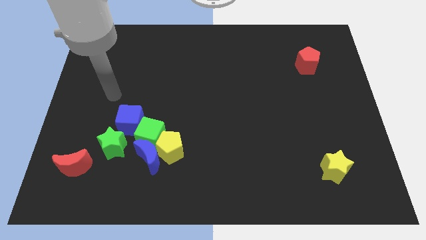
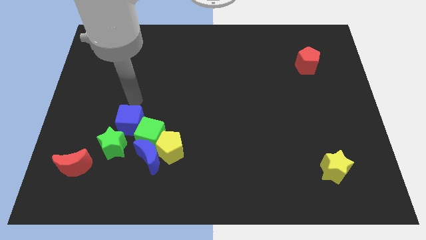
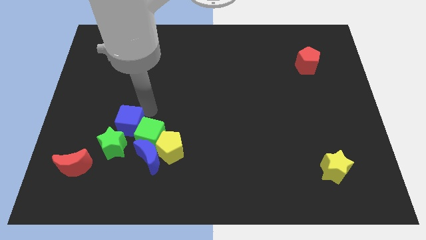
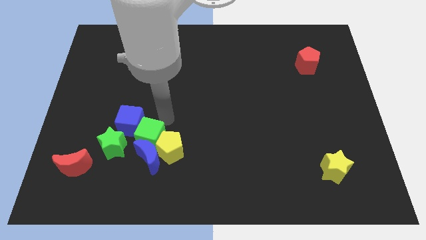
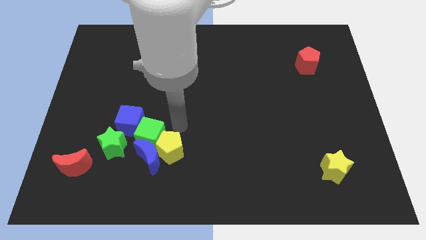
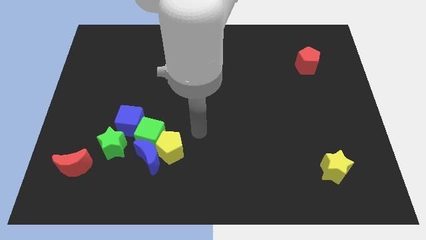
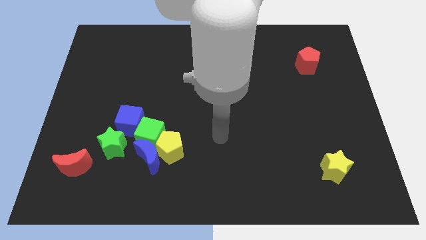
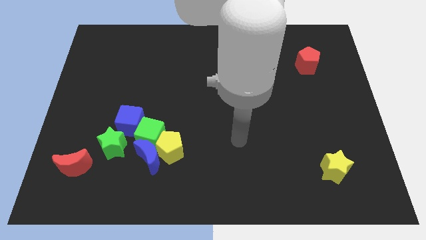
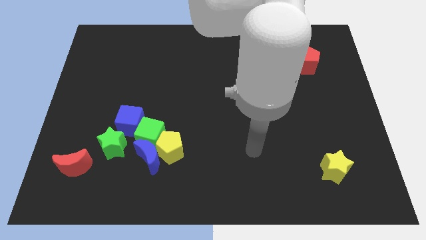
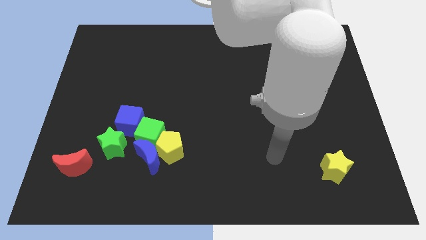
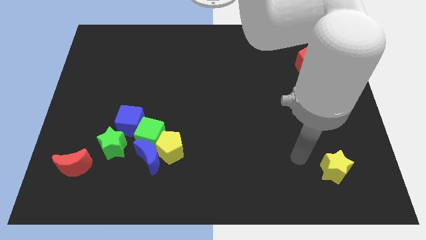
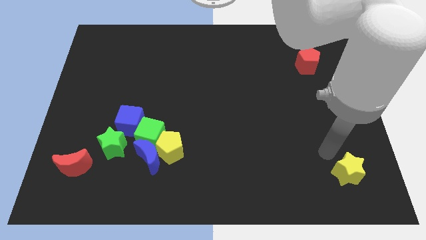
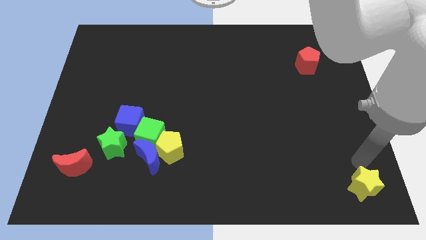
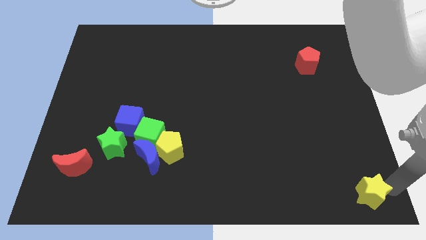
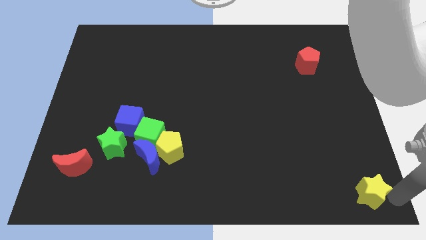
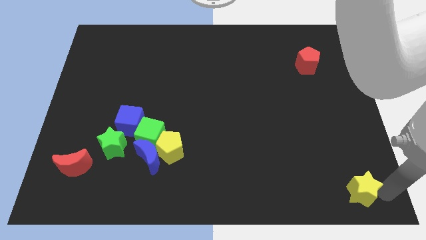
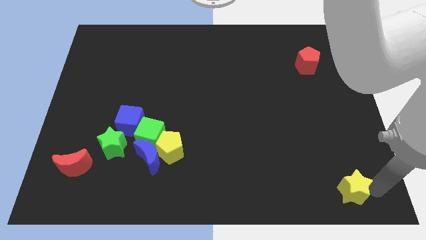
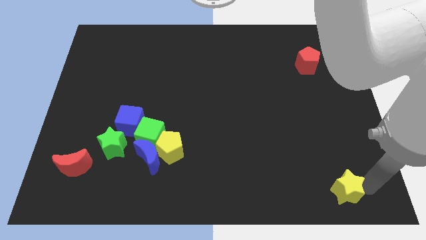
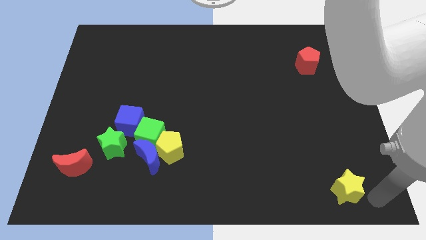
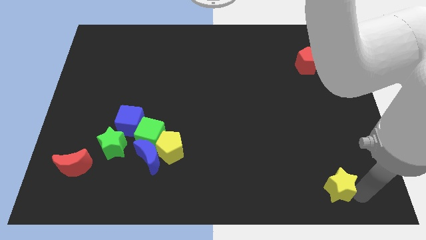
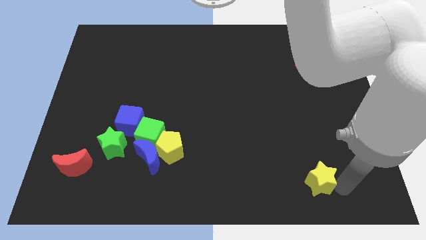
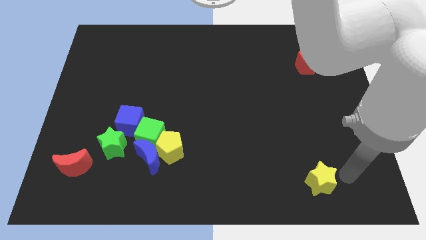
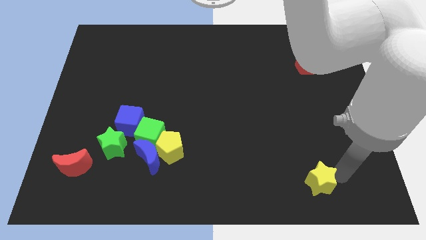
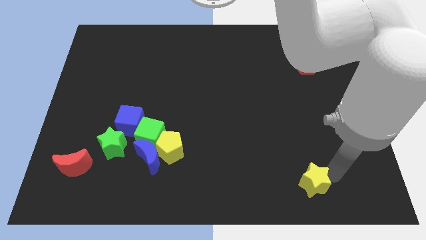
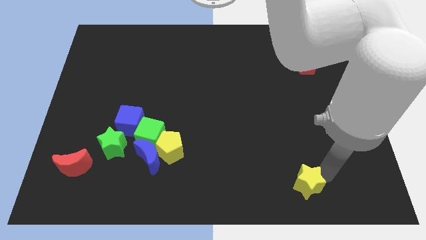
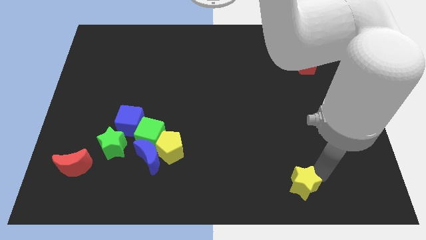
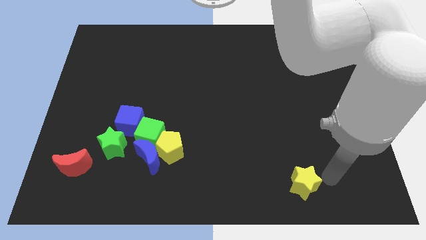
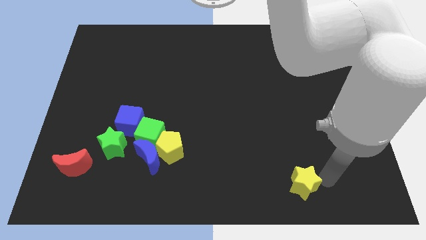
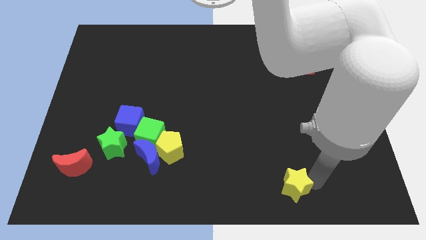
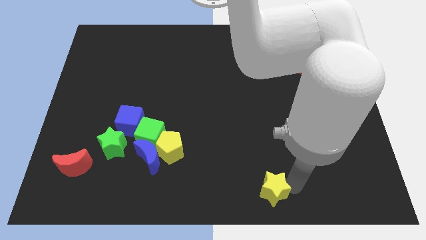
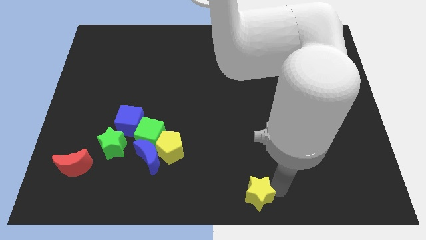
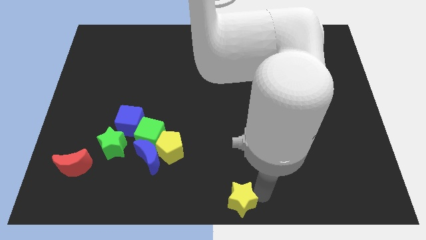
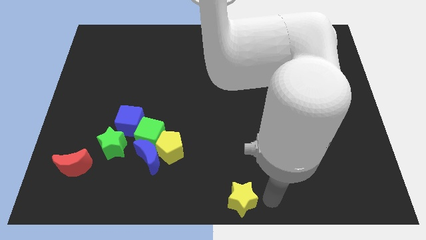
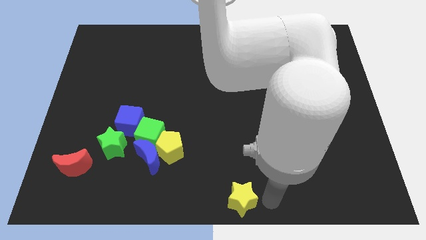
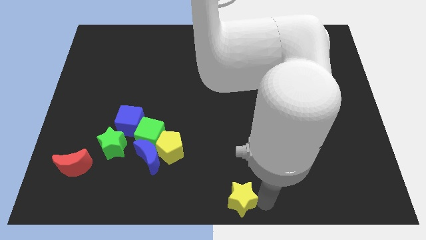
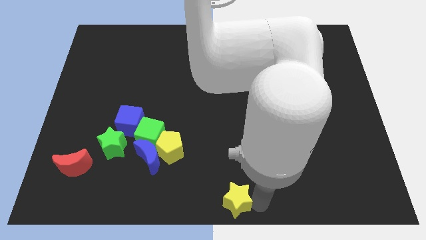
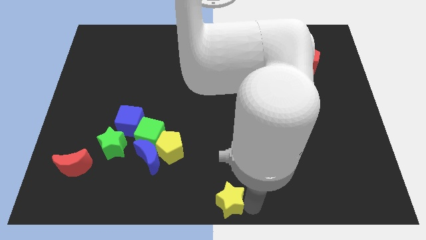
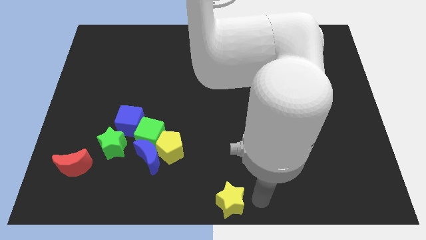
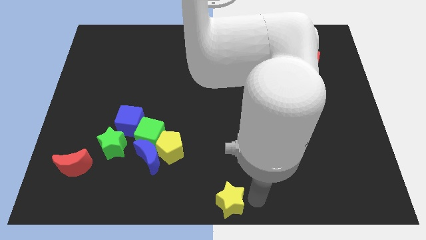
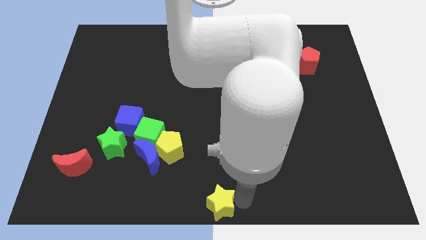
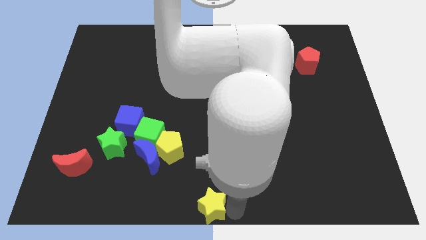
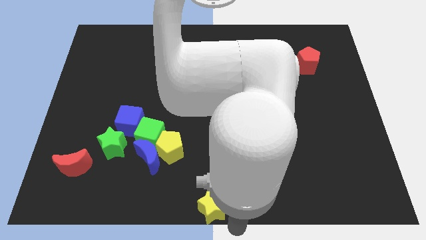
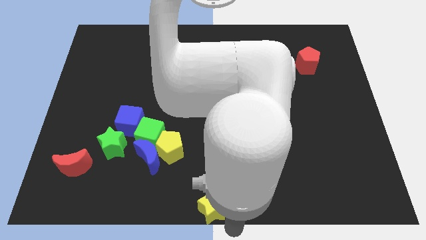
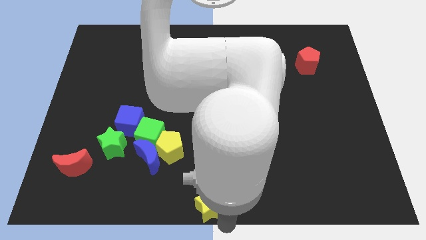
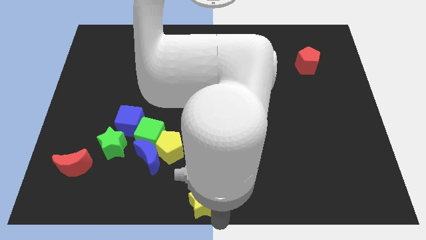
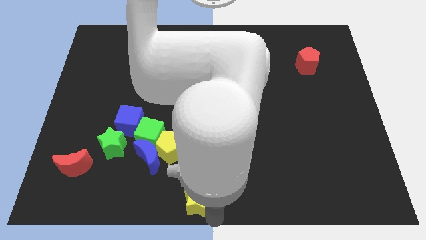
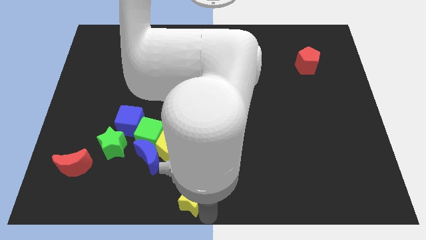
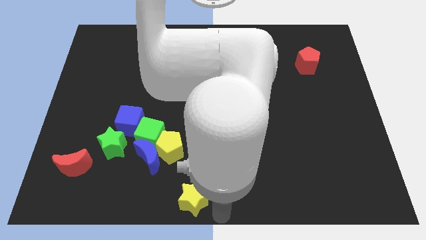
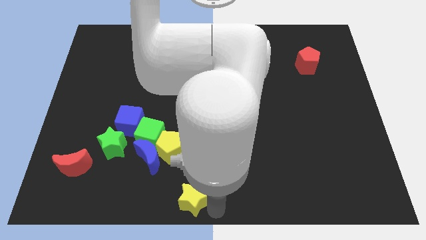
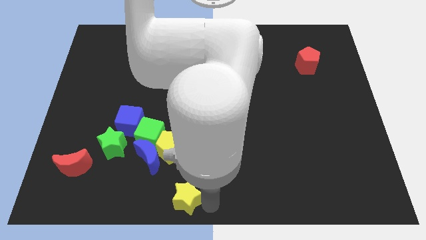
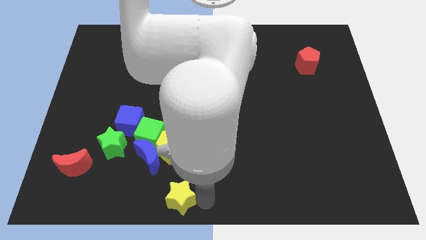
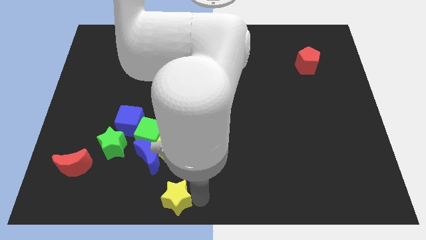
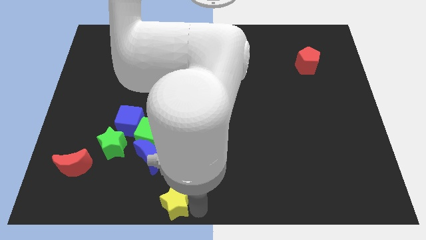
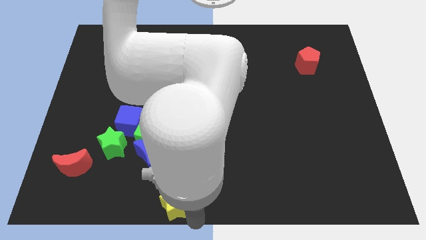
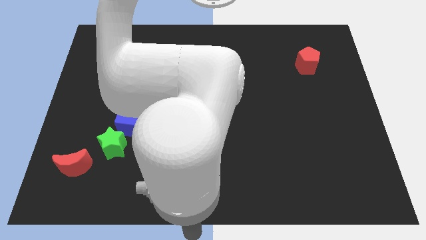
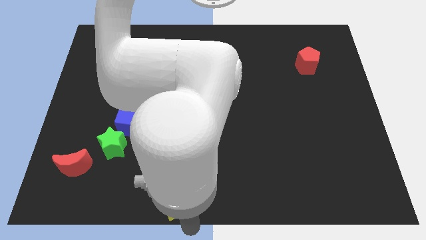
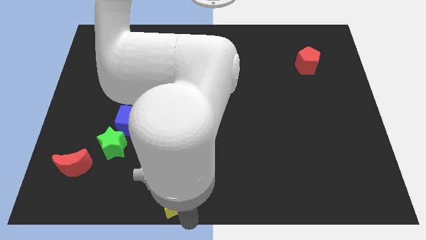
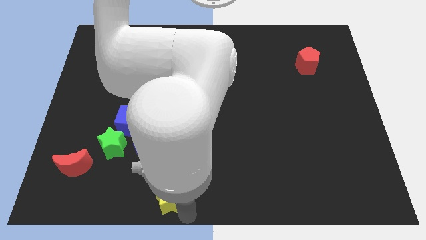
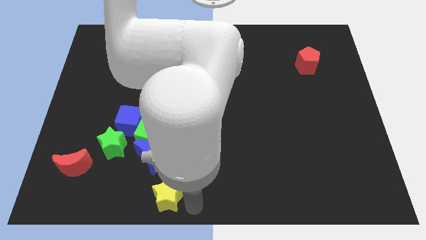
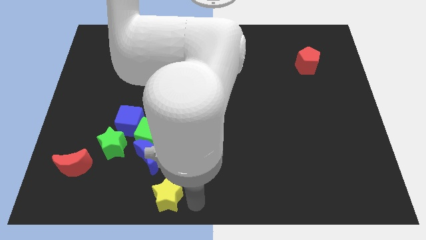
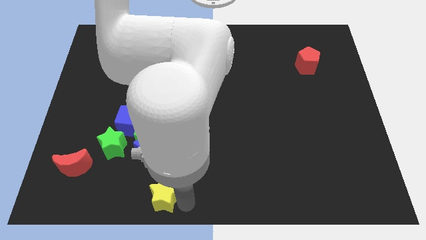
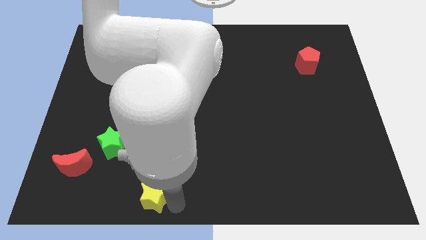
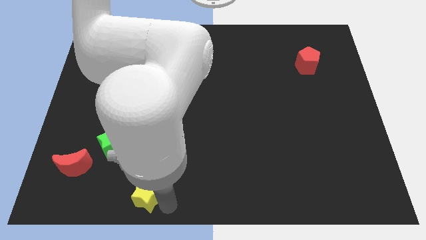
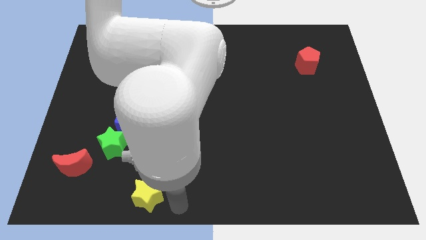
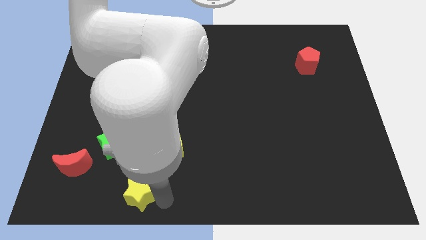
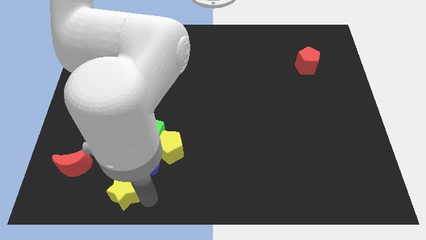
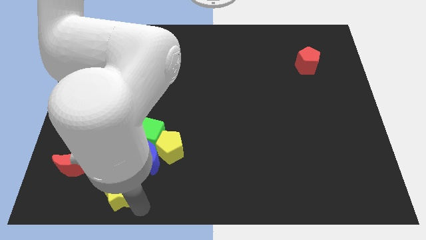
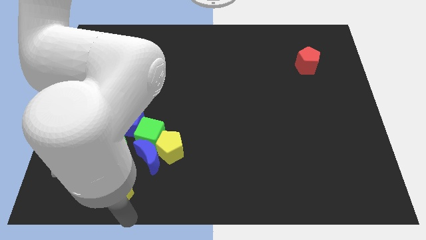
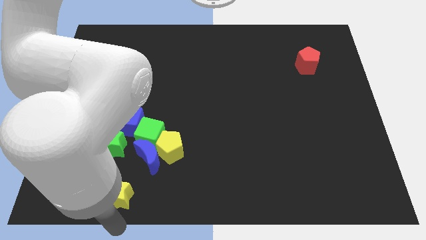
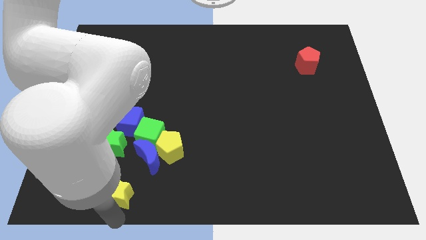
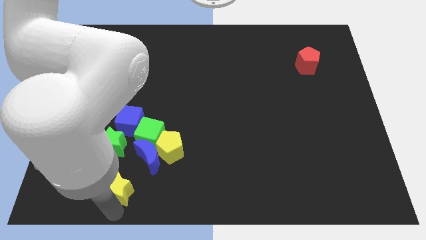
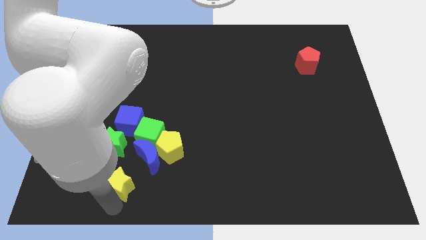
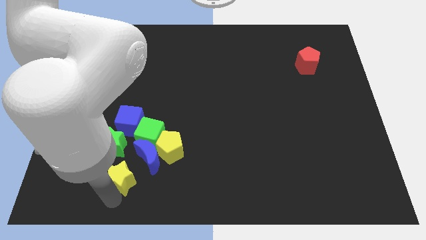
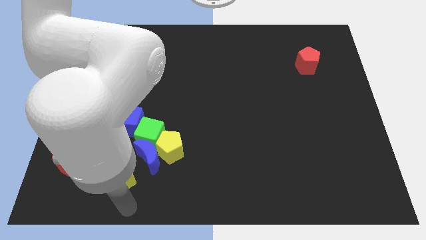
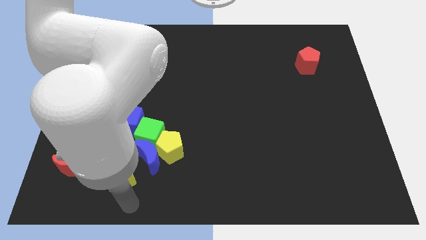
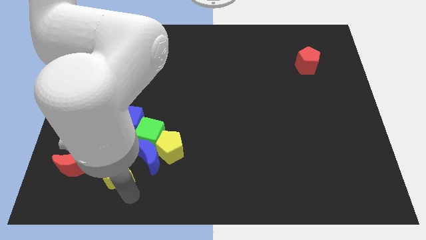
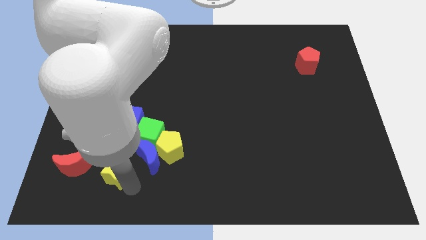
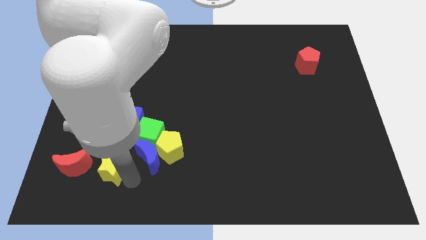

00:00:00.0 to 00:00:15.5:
push the yellow star next to the green star
